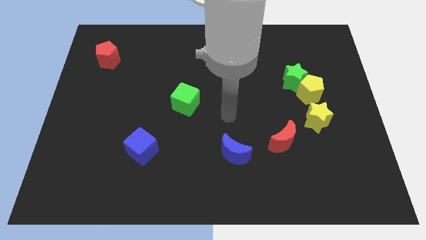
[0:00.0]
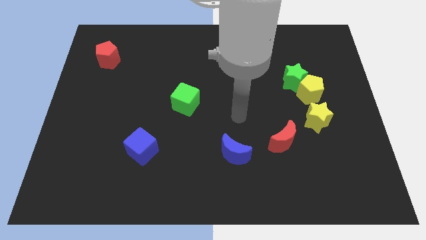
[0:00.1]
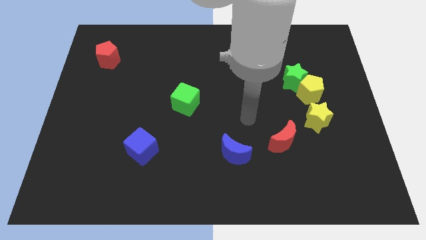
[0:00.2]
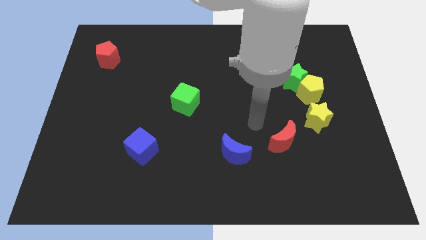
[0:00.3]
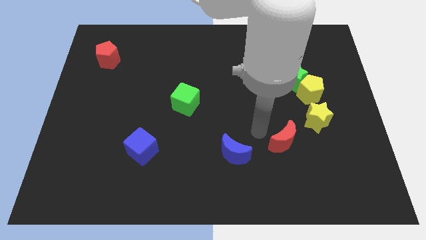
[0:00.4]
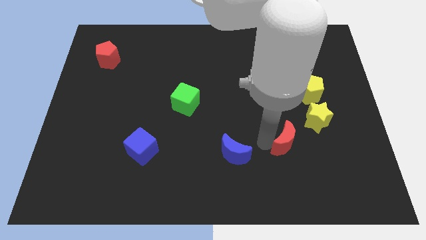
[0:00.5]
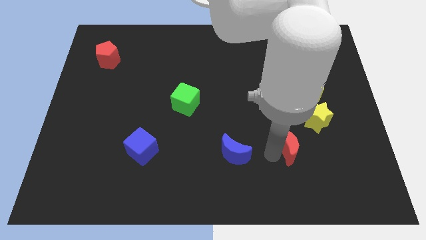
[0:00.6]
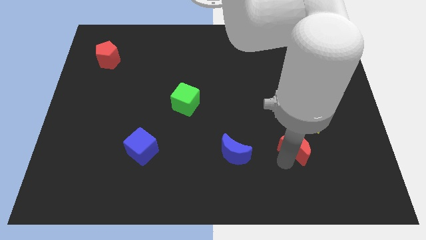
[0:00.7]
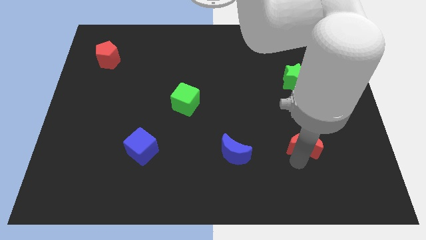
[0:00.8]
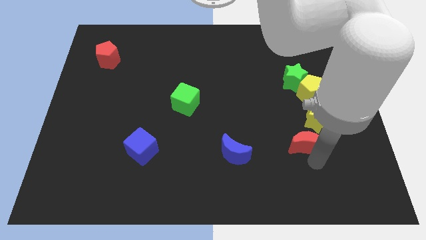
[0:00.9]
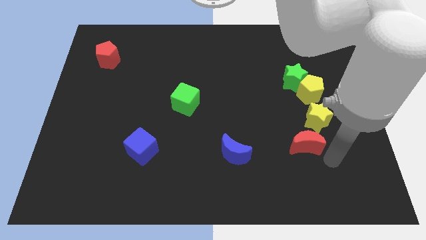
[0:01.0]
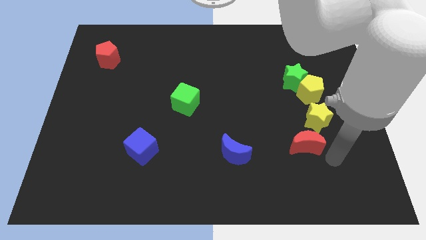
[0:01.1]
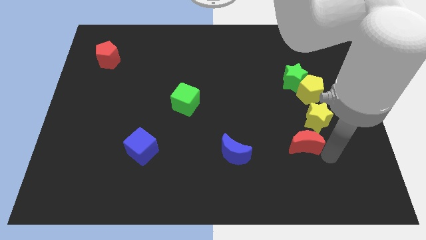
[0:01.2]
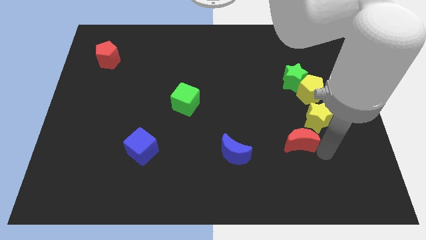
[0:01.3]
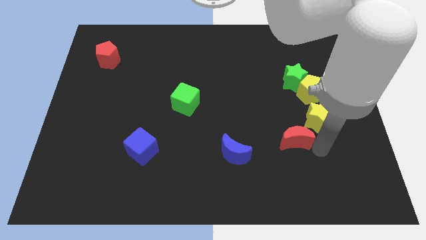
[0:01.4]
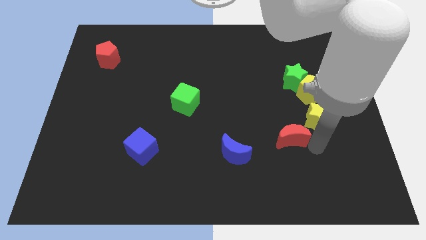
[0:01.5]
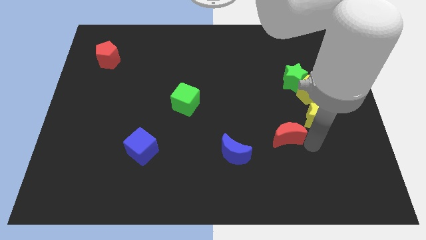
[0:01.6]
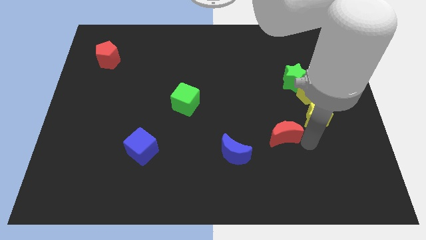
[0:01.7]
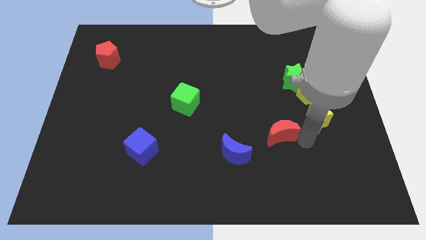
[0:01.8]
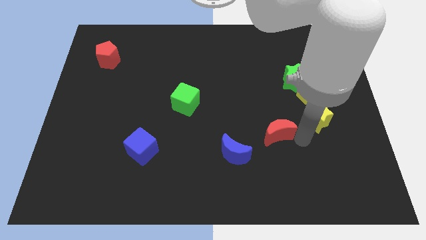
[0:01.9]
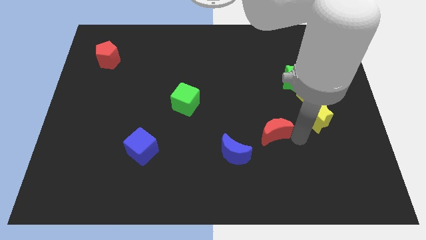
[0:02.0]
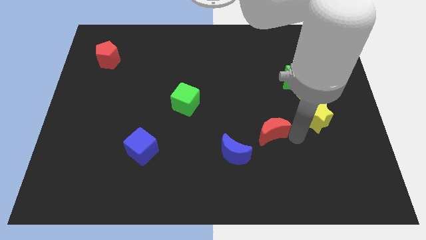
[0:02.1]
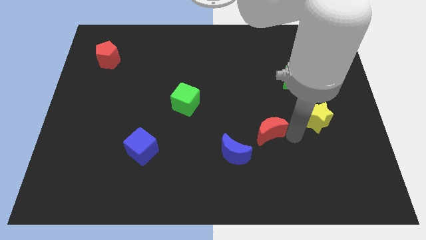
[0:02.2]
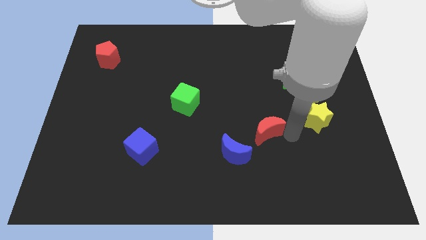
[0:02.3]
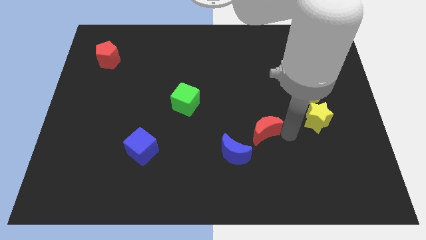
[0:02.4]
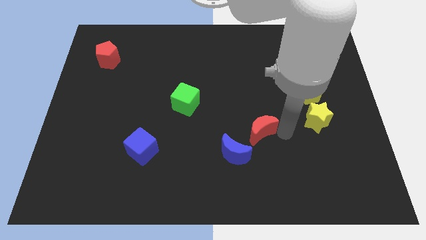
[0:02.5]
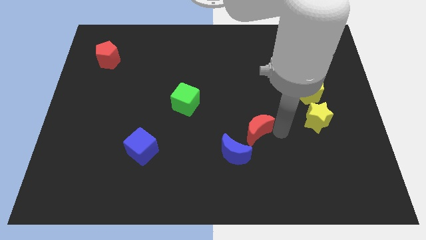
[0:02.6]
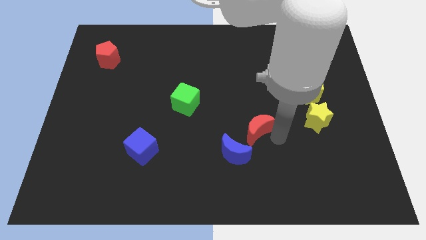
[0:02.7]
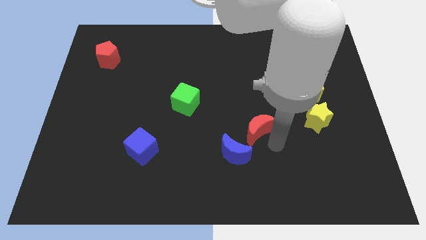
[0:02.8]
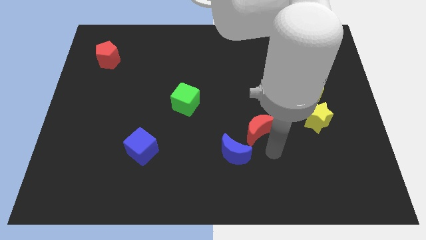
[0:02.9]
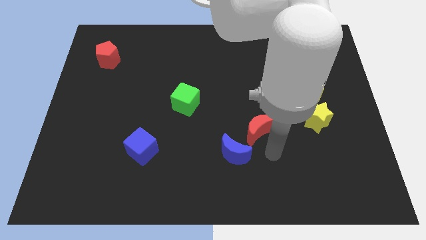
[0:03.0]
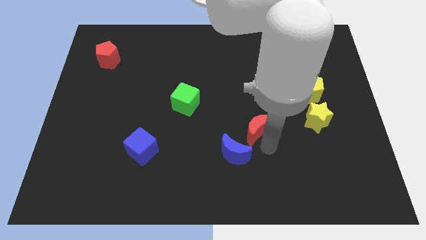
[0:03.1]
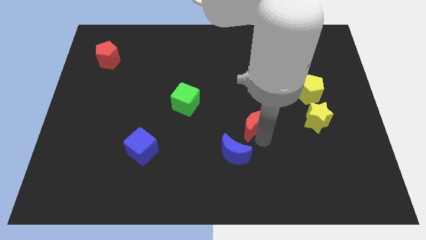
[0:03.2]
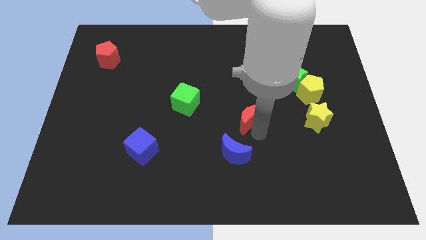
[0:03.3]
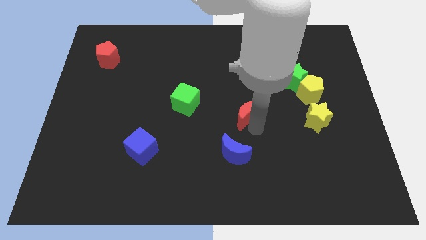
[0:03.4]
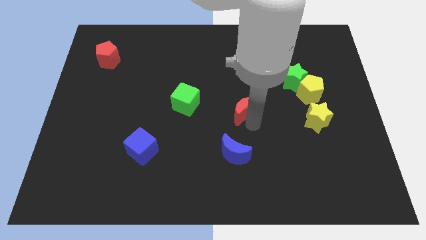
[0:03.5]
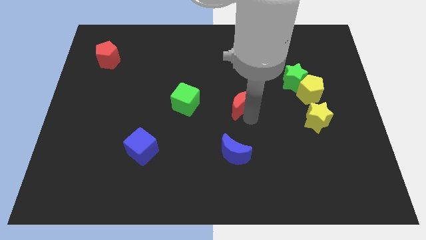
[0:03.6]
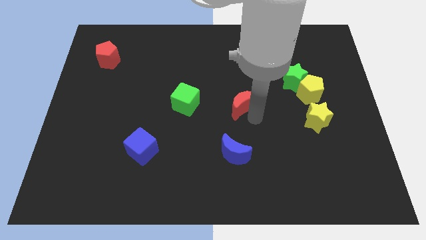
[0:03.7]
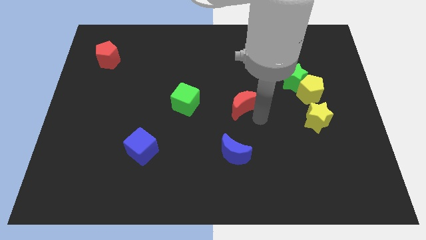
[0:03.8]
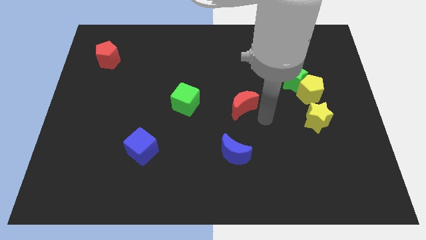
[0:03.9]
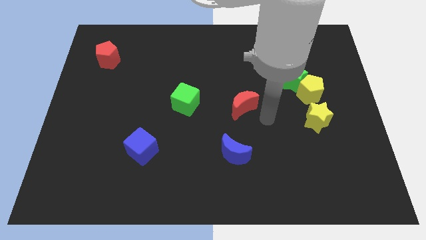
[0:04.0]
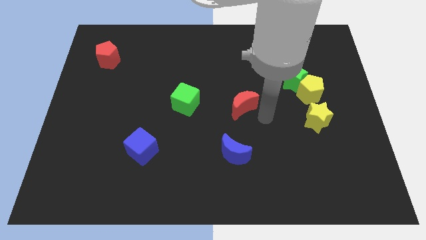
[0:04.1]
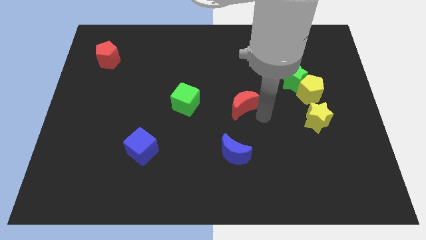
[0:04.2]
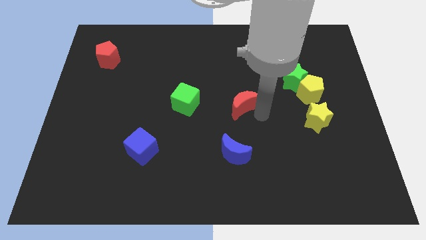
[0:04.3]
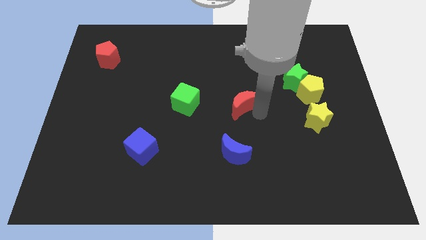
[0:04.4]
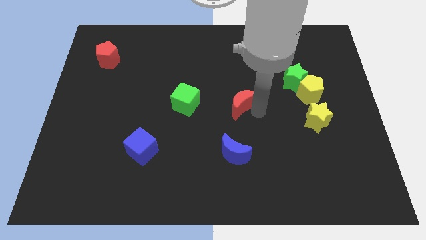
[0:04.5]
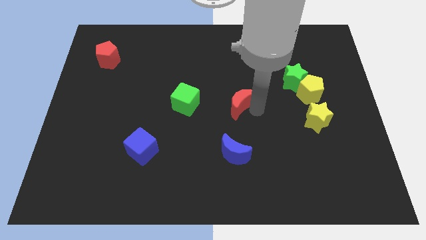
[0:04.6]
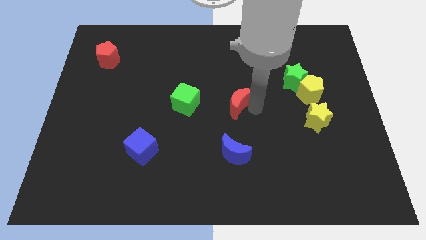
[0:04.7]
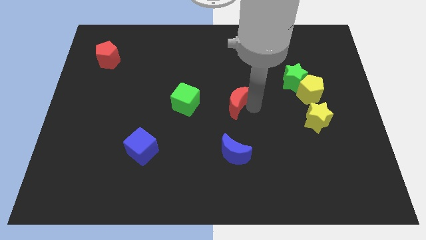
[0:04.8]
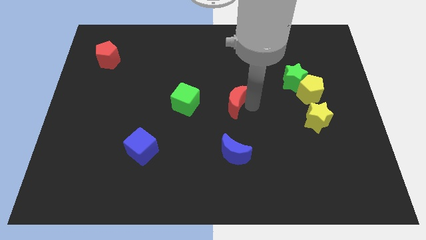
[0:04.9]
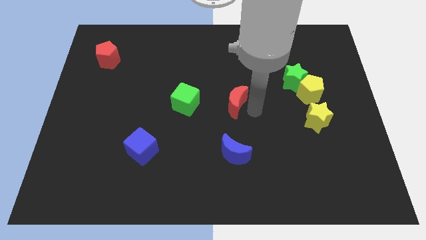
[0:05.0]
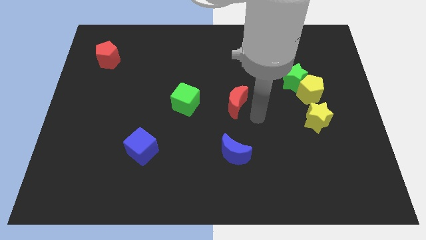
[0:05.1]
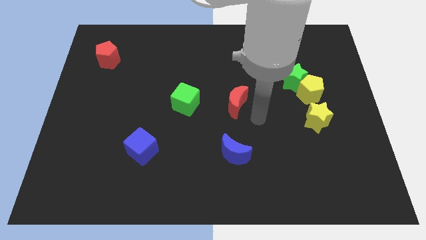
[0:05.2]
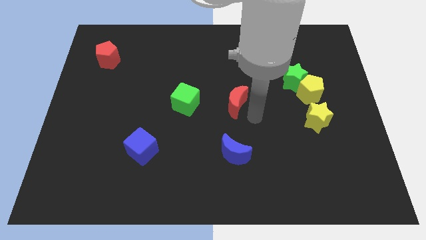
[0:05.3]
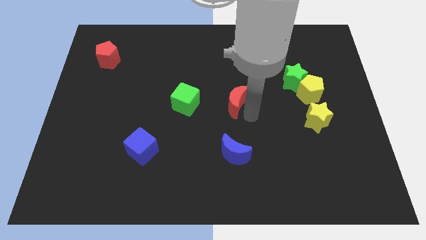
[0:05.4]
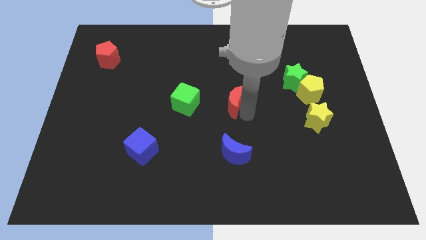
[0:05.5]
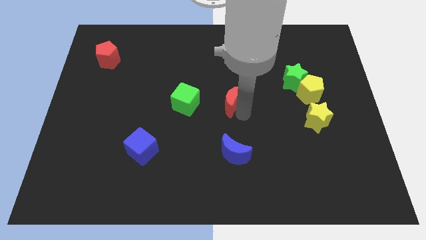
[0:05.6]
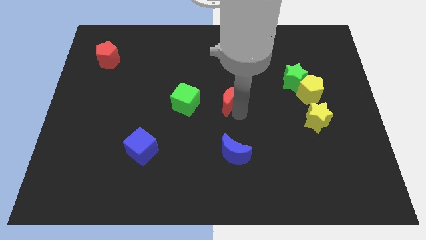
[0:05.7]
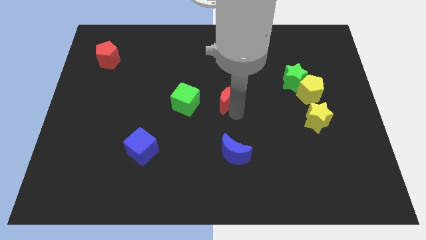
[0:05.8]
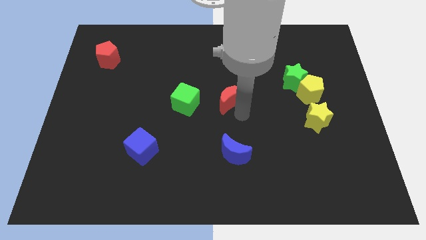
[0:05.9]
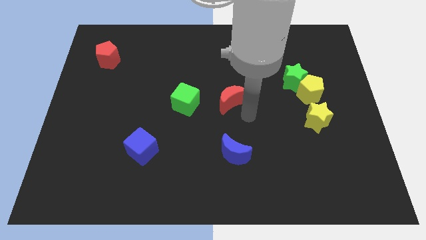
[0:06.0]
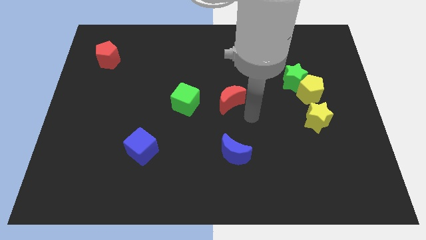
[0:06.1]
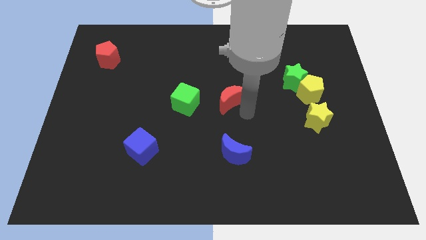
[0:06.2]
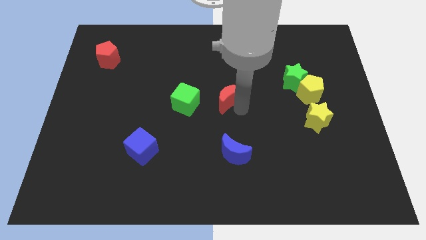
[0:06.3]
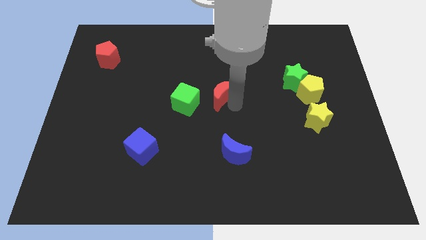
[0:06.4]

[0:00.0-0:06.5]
push the red moon to the top right of the green cube

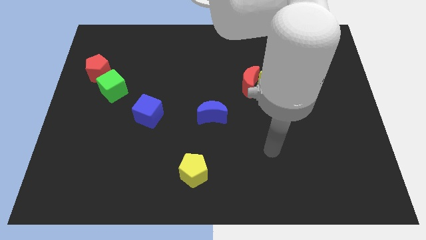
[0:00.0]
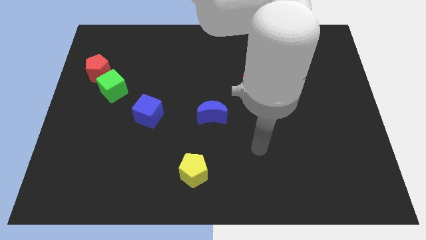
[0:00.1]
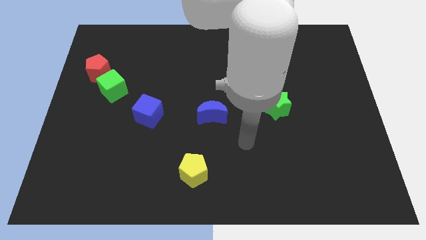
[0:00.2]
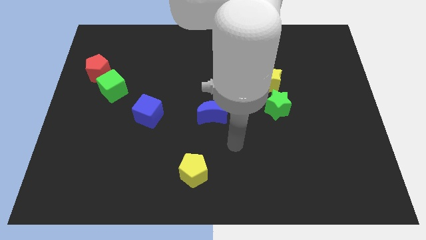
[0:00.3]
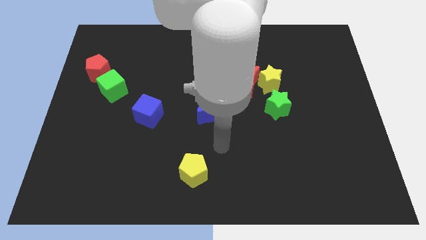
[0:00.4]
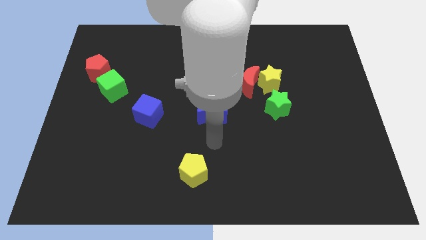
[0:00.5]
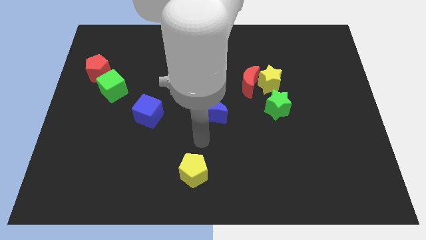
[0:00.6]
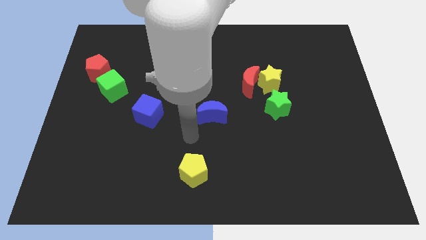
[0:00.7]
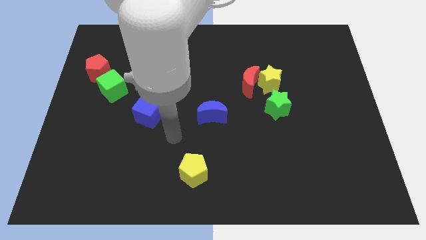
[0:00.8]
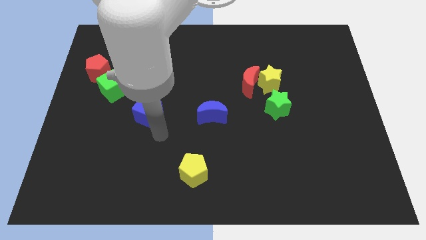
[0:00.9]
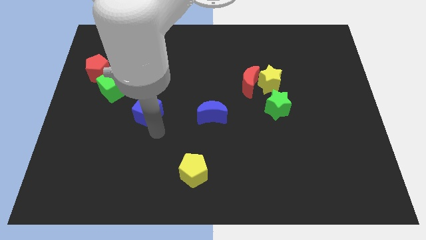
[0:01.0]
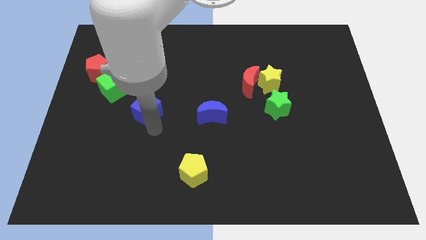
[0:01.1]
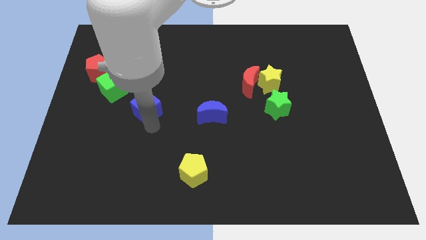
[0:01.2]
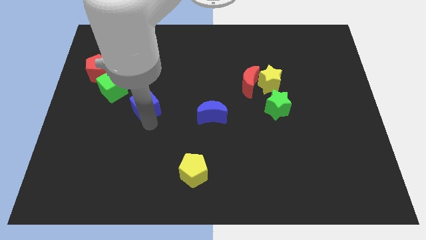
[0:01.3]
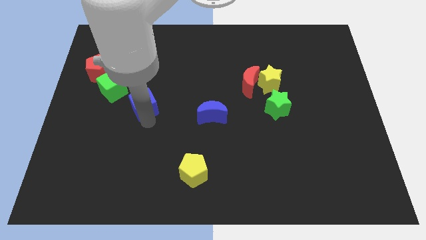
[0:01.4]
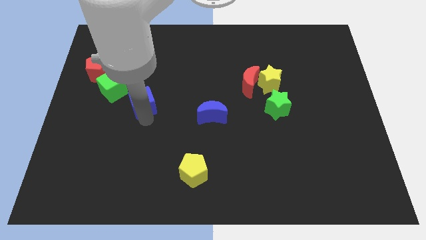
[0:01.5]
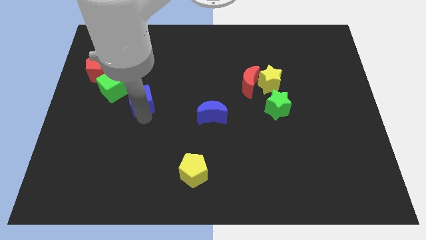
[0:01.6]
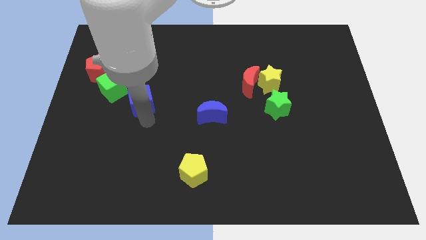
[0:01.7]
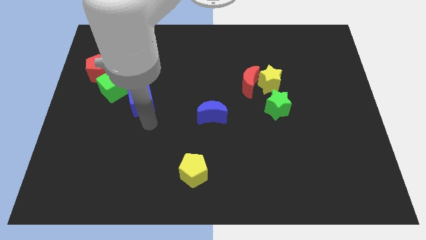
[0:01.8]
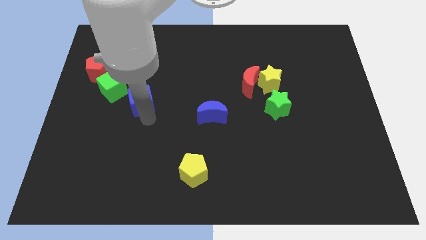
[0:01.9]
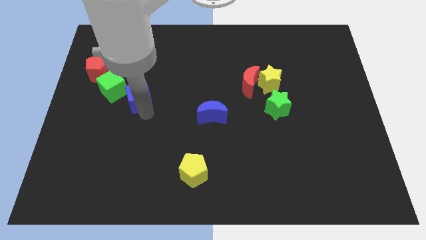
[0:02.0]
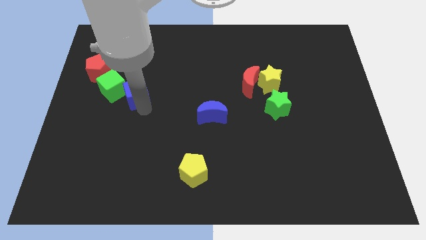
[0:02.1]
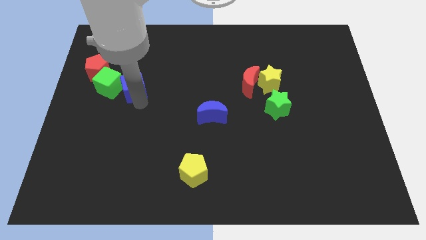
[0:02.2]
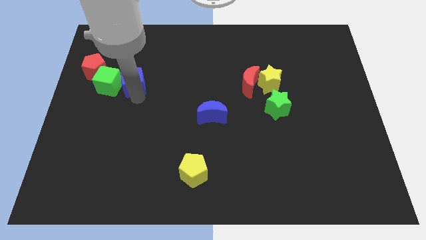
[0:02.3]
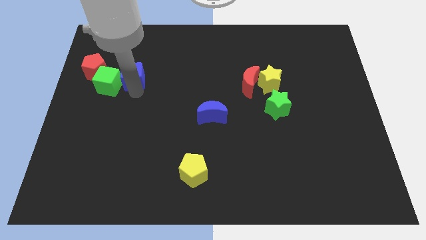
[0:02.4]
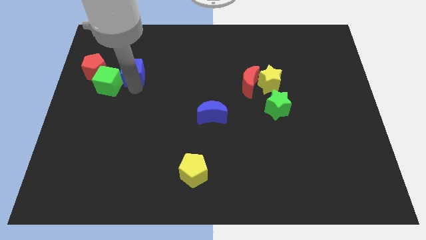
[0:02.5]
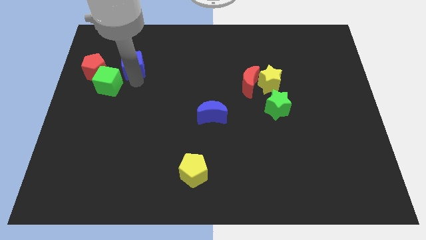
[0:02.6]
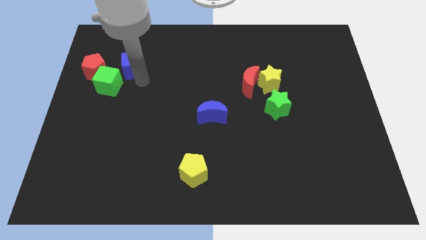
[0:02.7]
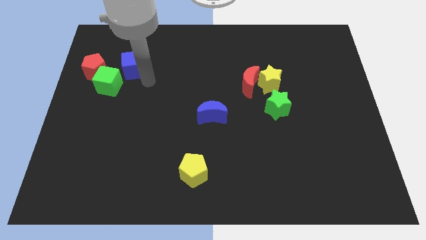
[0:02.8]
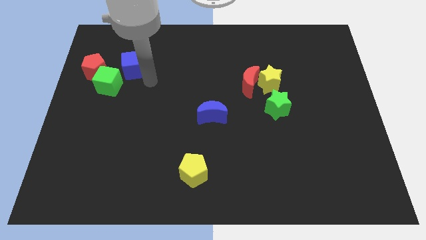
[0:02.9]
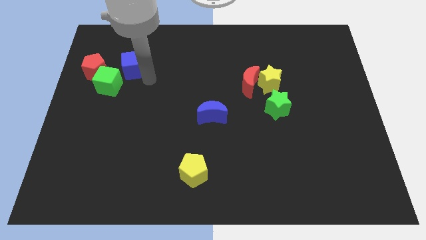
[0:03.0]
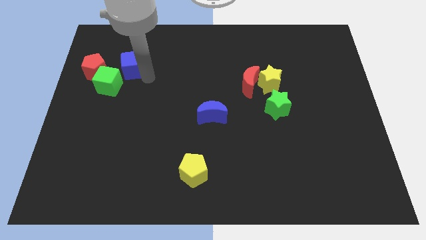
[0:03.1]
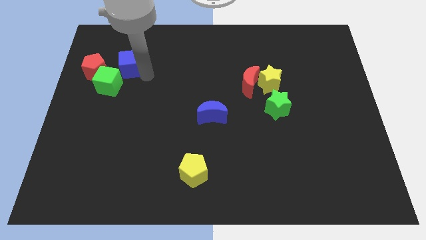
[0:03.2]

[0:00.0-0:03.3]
put the blue cube diagonally up and to the right of the red pentagon
